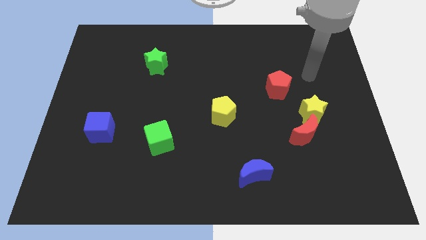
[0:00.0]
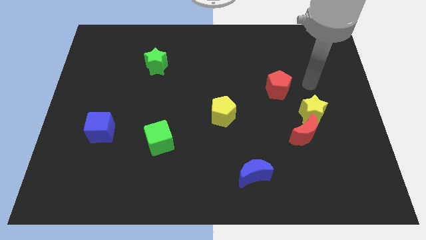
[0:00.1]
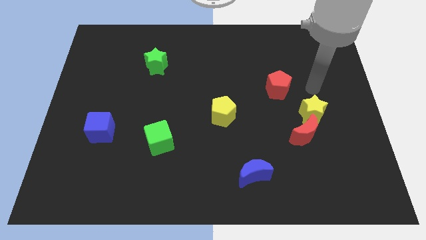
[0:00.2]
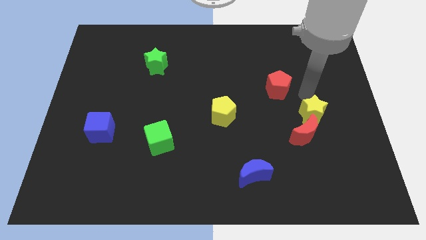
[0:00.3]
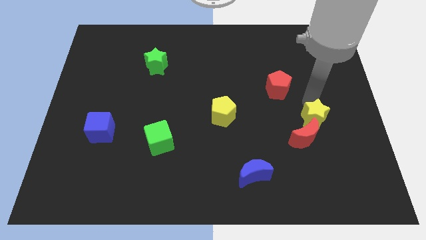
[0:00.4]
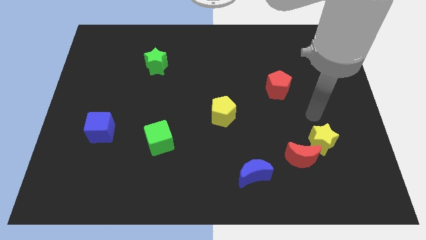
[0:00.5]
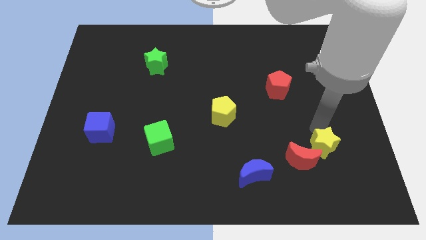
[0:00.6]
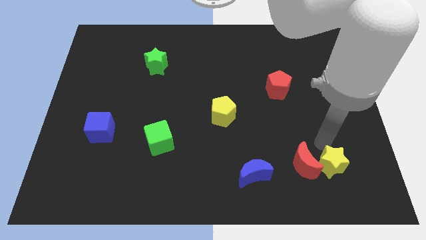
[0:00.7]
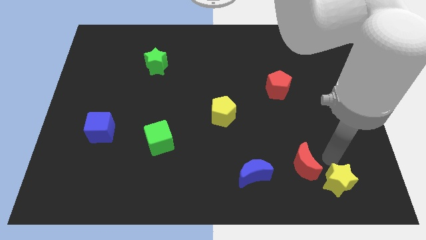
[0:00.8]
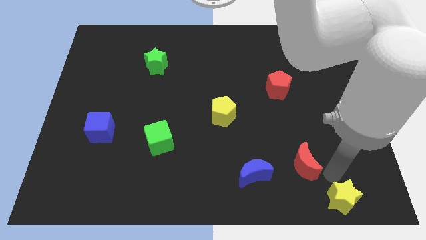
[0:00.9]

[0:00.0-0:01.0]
pull the red moon apart from the yellow star

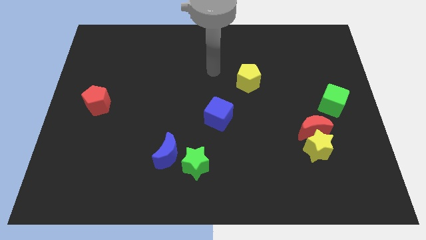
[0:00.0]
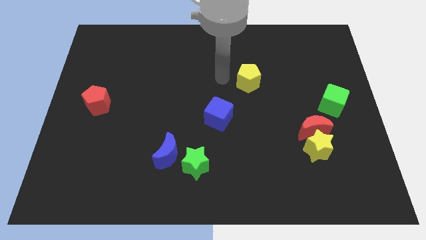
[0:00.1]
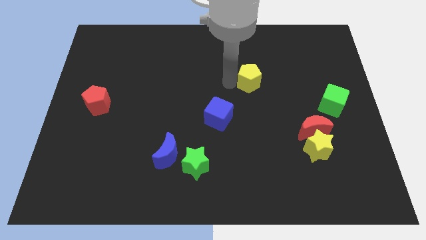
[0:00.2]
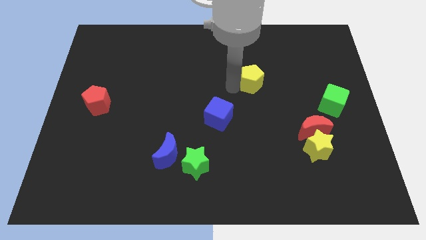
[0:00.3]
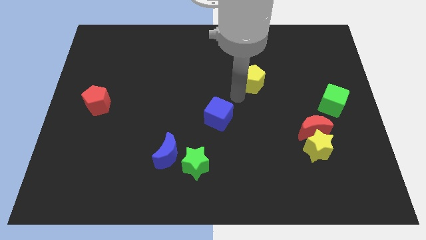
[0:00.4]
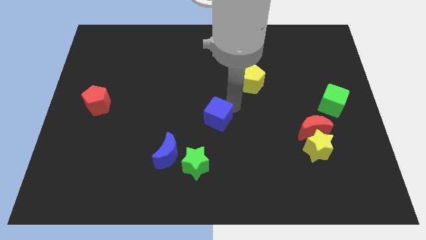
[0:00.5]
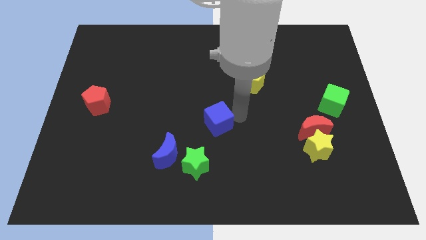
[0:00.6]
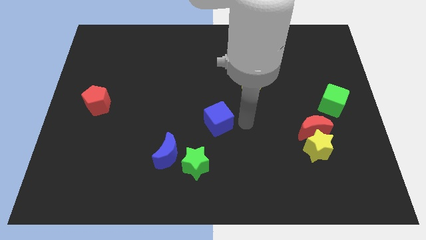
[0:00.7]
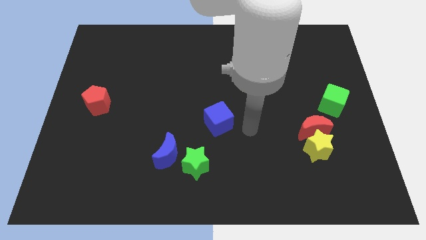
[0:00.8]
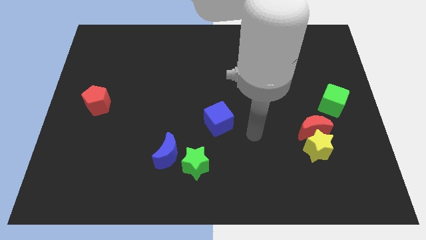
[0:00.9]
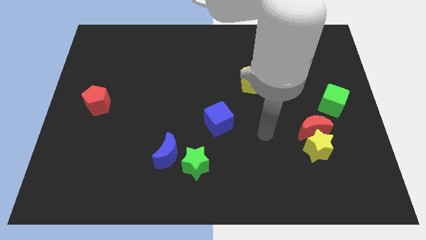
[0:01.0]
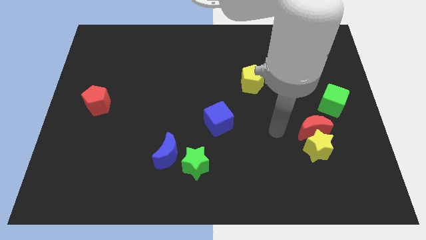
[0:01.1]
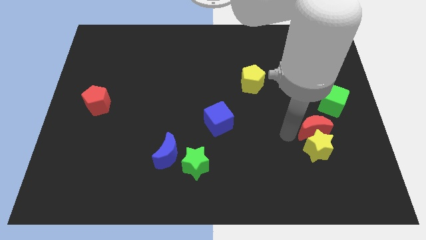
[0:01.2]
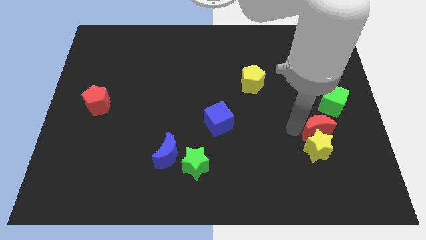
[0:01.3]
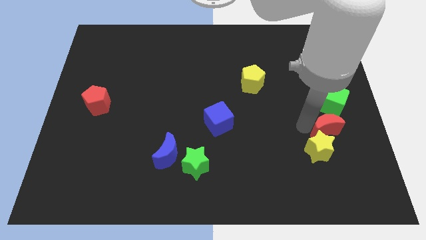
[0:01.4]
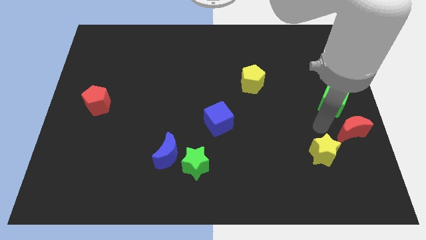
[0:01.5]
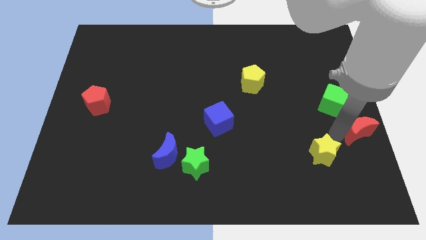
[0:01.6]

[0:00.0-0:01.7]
move the yellow star away from the red moon

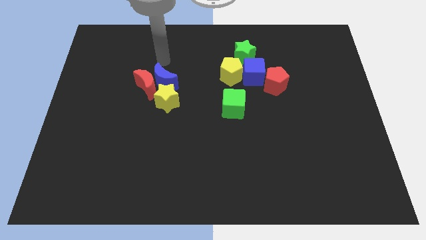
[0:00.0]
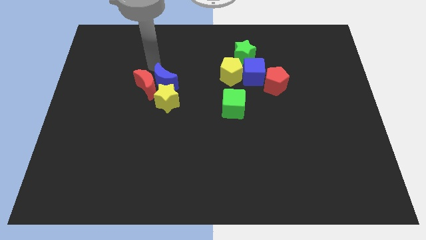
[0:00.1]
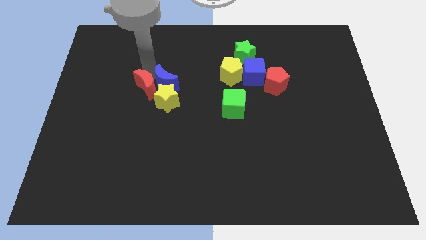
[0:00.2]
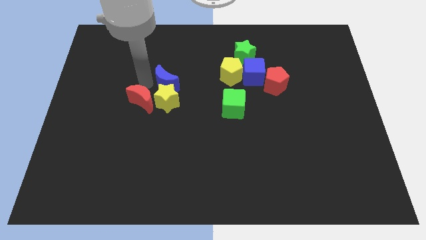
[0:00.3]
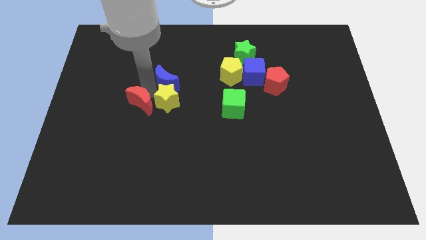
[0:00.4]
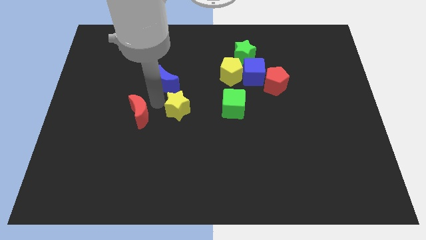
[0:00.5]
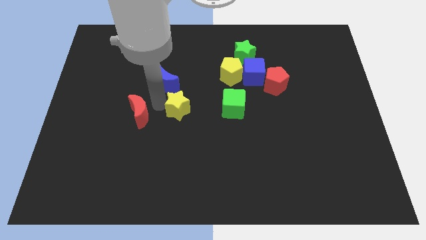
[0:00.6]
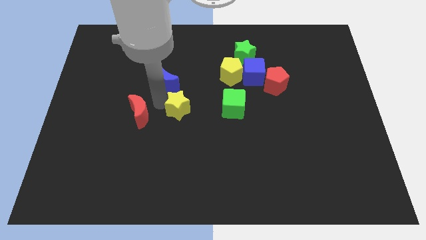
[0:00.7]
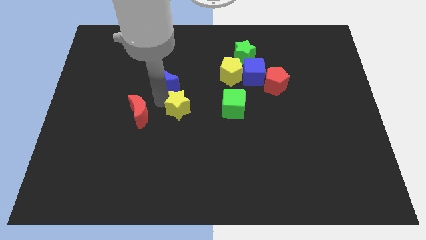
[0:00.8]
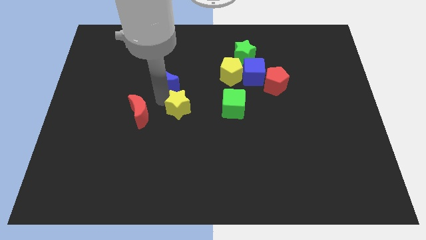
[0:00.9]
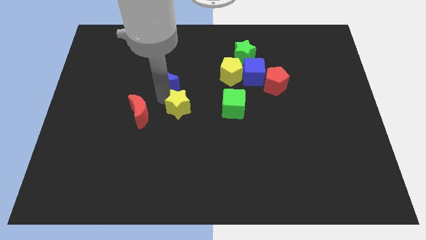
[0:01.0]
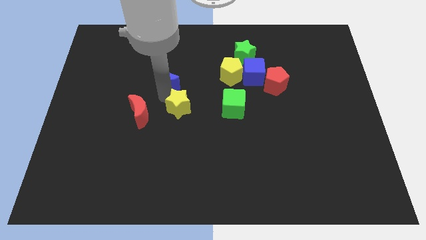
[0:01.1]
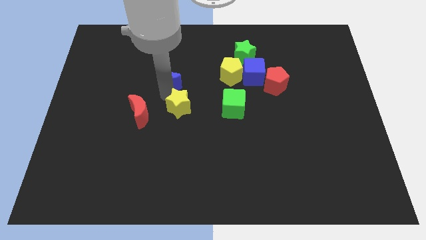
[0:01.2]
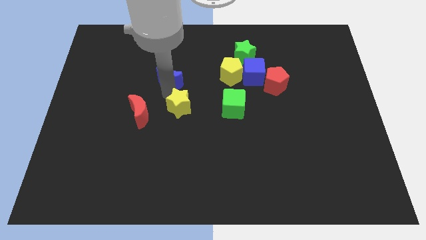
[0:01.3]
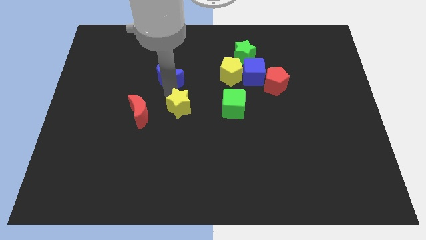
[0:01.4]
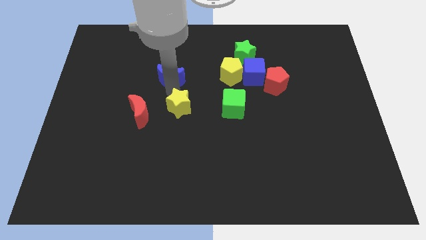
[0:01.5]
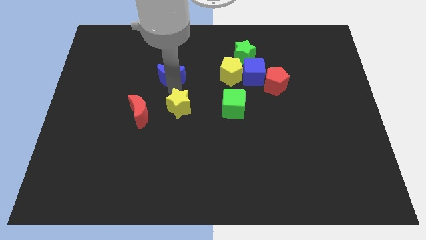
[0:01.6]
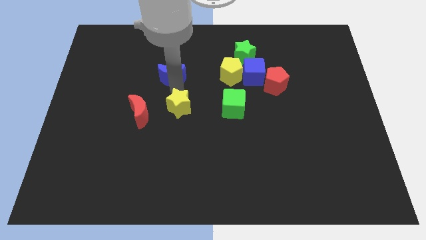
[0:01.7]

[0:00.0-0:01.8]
separate the blue moon from the red moon and yellow star

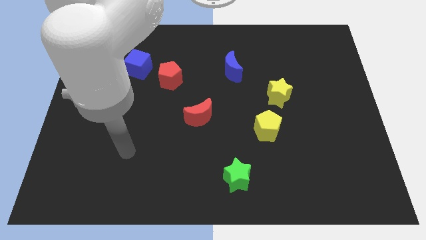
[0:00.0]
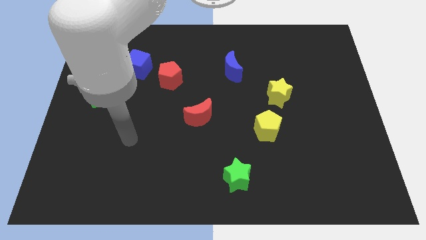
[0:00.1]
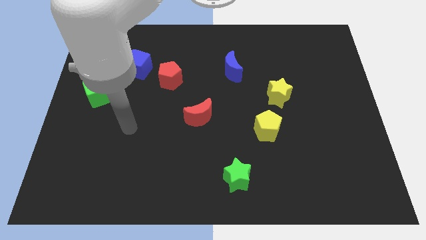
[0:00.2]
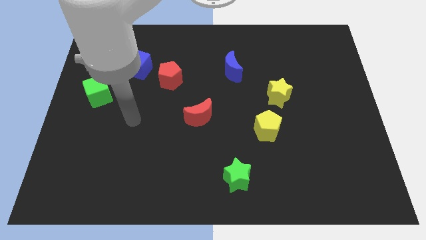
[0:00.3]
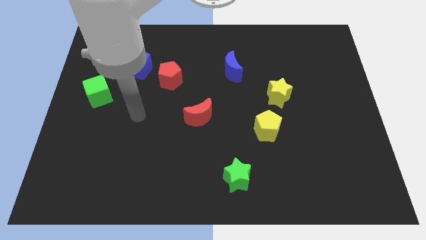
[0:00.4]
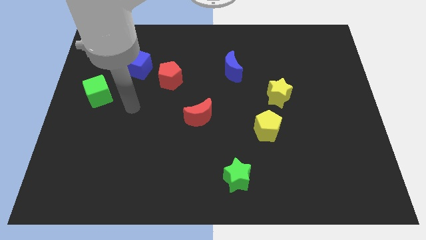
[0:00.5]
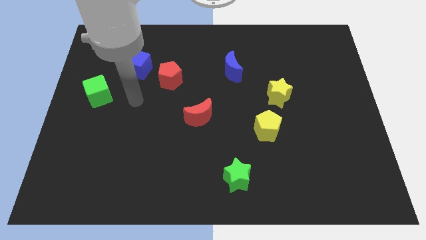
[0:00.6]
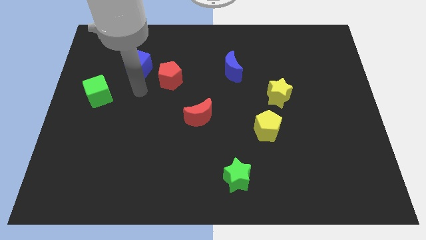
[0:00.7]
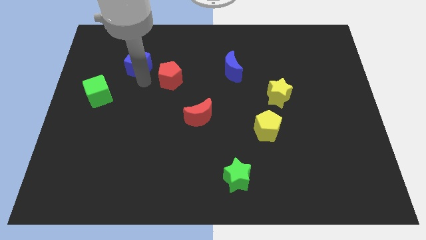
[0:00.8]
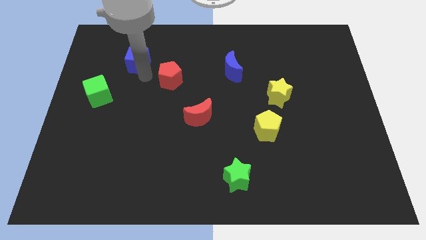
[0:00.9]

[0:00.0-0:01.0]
pull the red pentagon apart from the blue cube

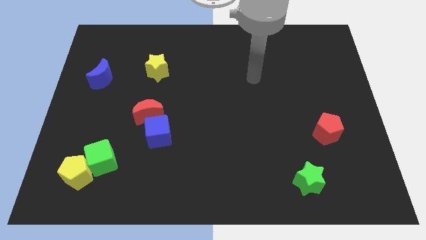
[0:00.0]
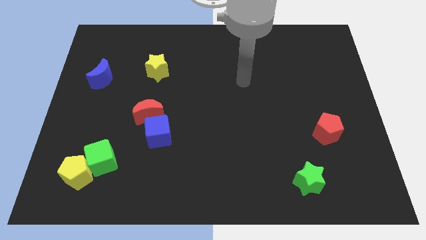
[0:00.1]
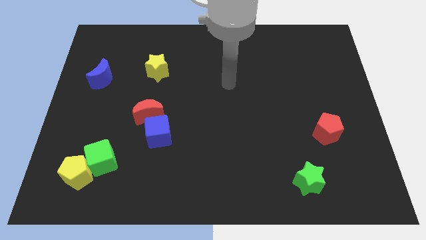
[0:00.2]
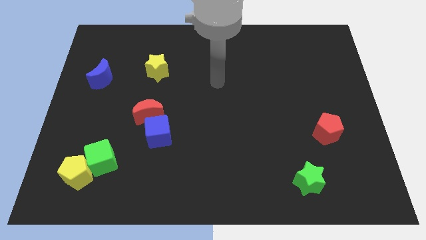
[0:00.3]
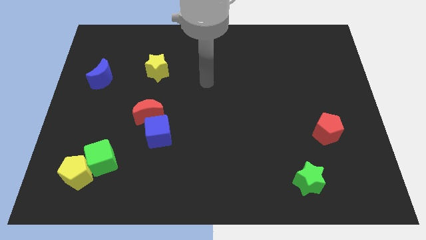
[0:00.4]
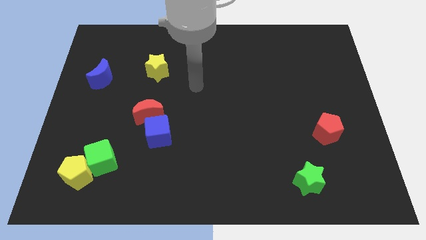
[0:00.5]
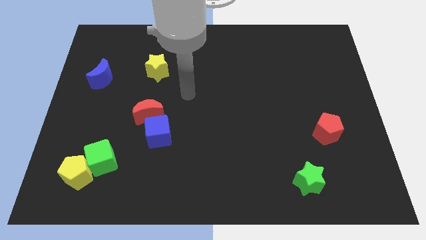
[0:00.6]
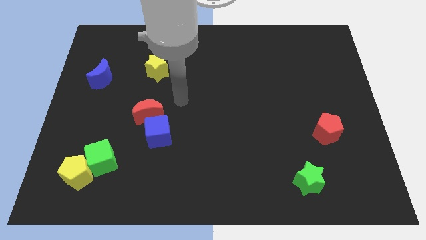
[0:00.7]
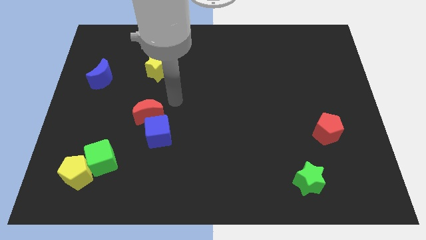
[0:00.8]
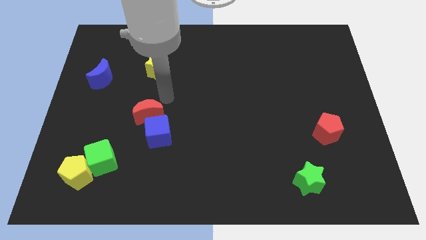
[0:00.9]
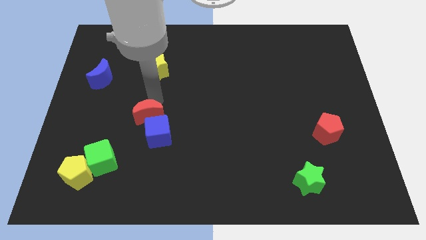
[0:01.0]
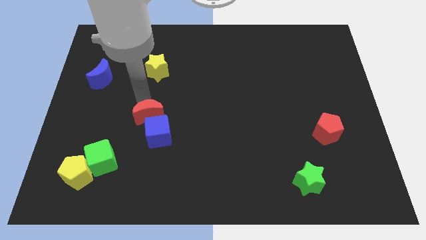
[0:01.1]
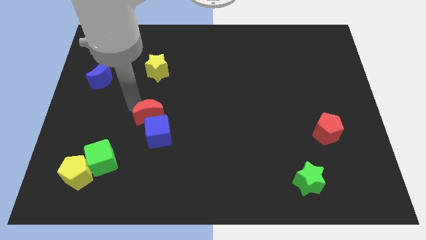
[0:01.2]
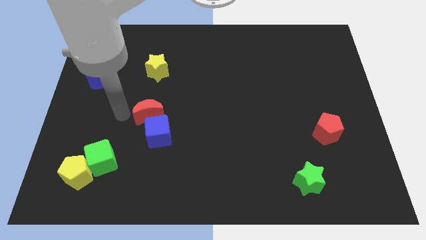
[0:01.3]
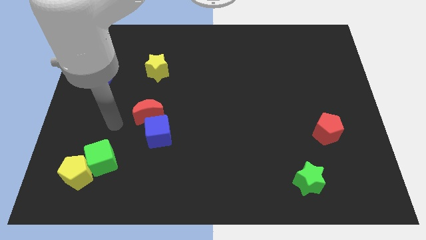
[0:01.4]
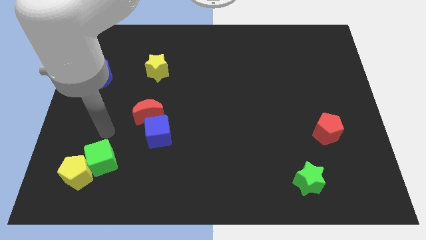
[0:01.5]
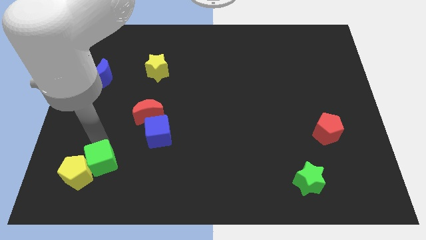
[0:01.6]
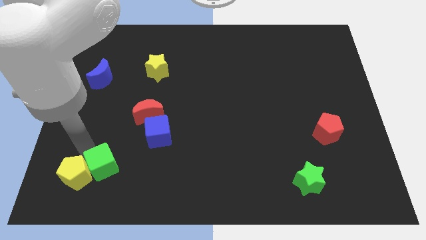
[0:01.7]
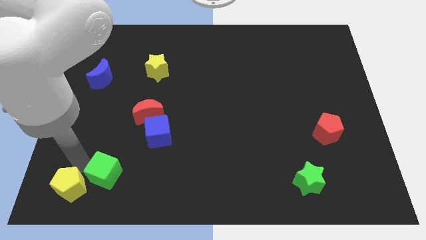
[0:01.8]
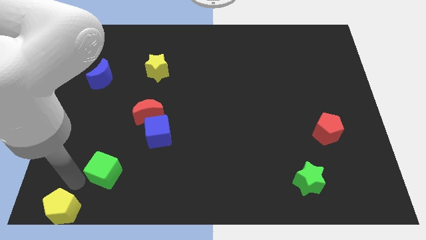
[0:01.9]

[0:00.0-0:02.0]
separate the green cube from the yellow pentagon

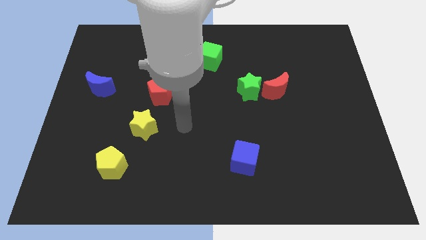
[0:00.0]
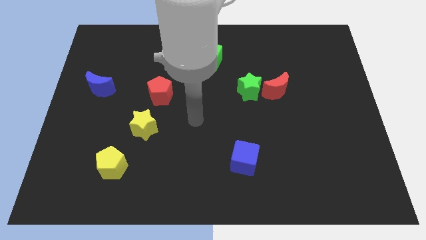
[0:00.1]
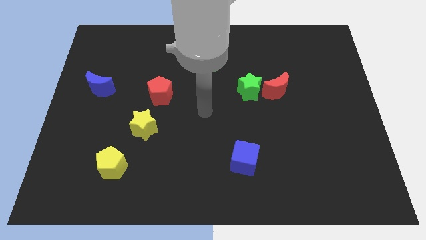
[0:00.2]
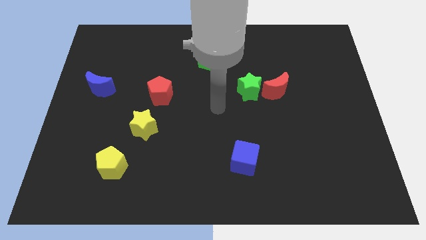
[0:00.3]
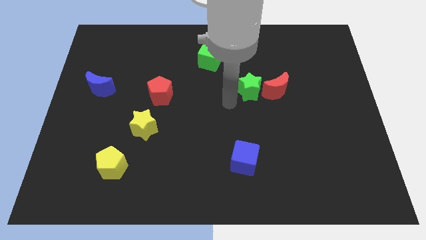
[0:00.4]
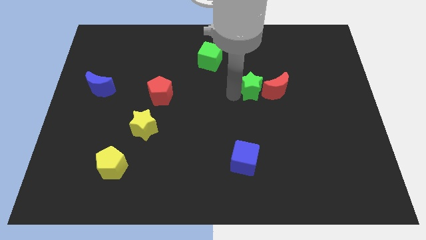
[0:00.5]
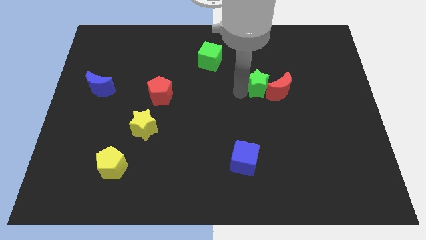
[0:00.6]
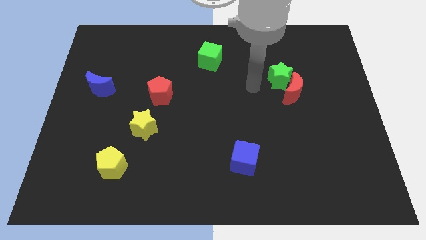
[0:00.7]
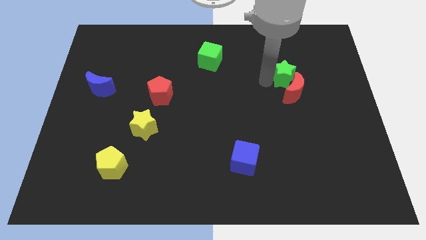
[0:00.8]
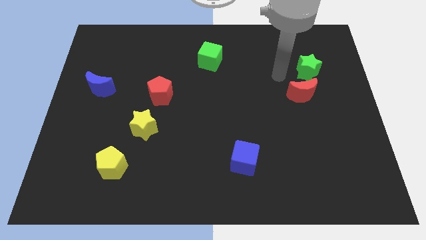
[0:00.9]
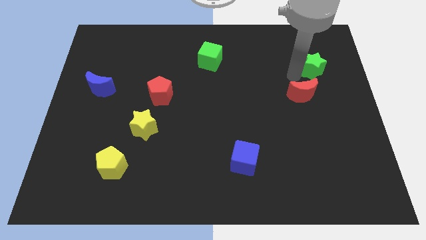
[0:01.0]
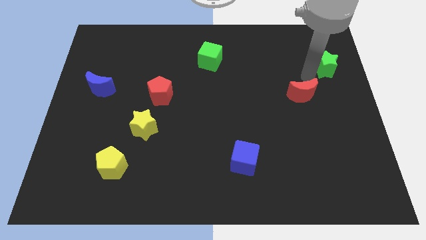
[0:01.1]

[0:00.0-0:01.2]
separate the red moon from the green star

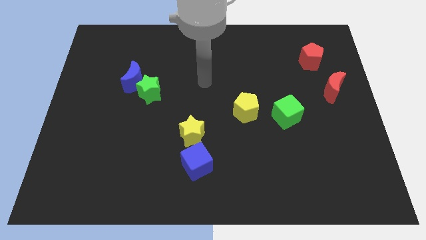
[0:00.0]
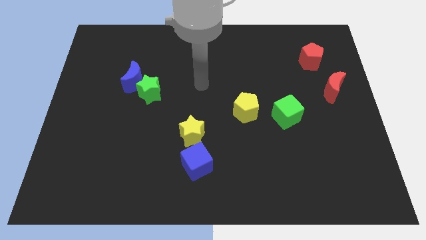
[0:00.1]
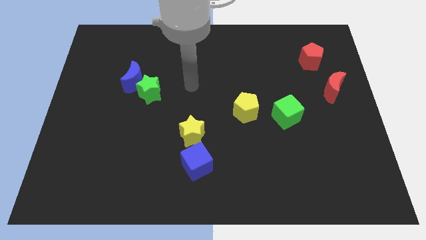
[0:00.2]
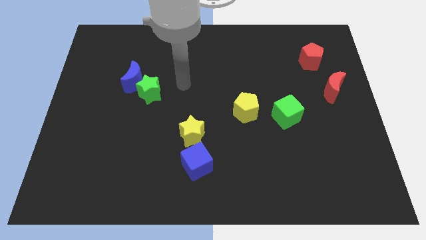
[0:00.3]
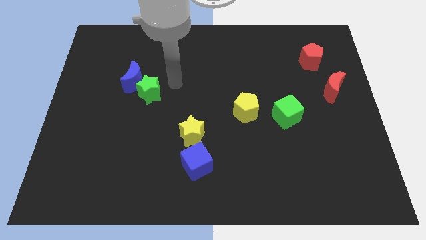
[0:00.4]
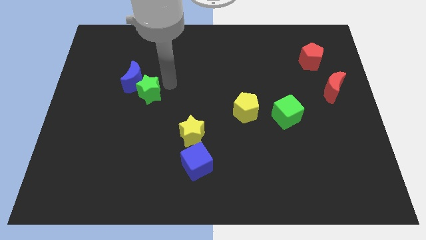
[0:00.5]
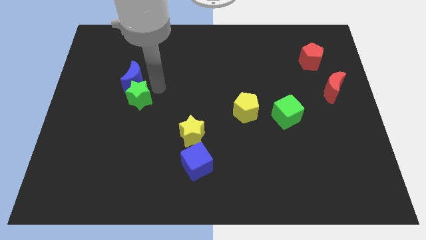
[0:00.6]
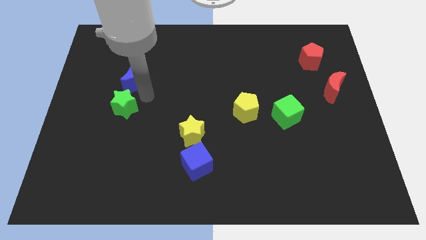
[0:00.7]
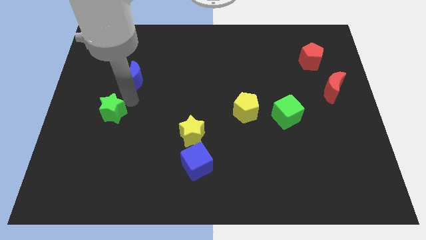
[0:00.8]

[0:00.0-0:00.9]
separate the blue moon from the green star
